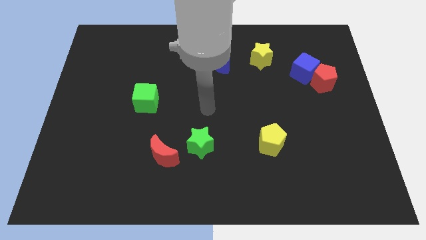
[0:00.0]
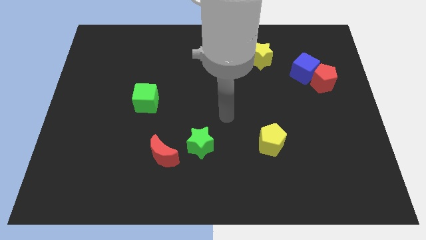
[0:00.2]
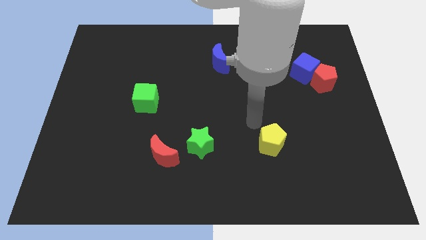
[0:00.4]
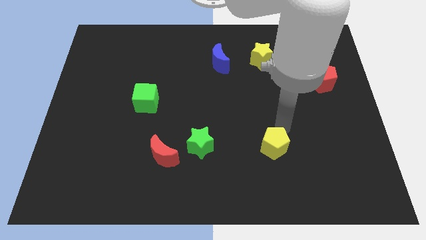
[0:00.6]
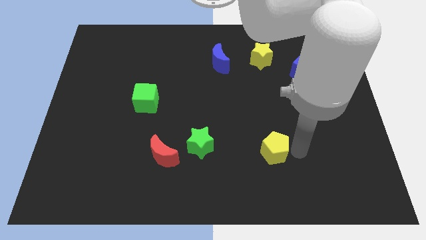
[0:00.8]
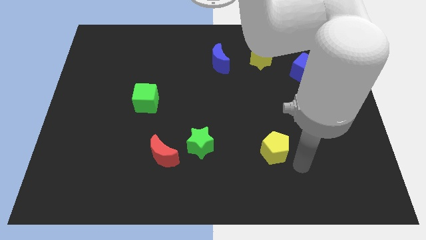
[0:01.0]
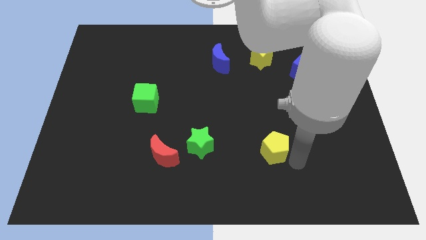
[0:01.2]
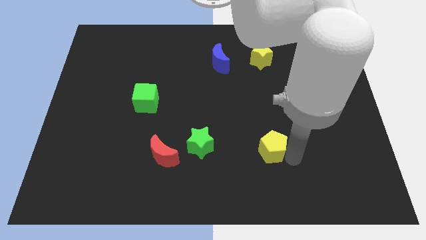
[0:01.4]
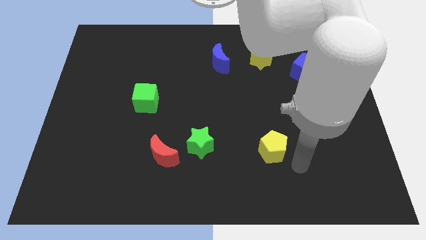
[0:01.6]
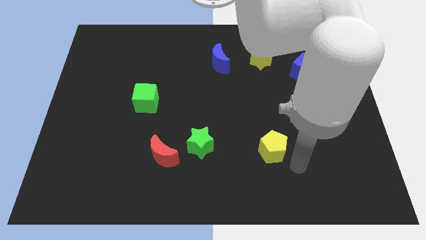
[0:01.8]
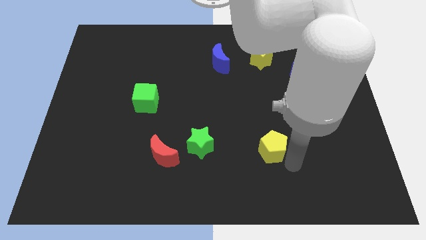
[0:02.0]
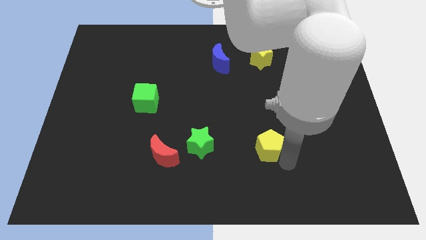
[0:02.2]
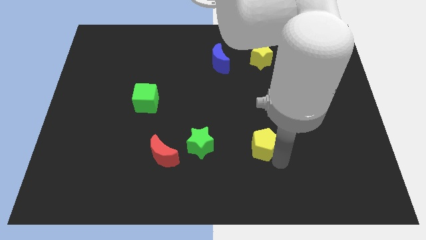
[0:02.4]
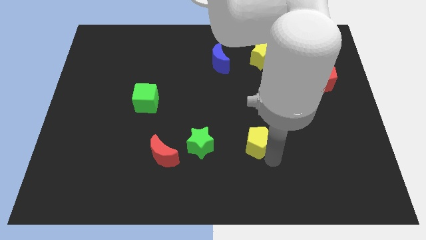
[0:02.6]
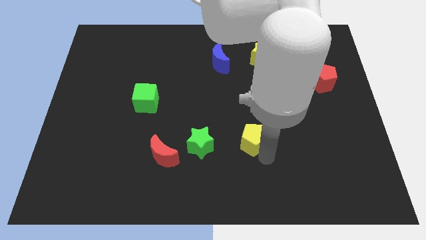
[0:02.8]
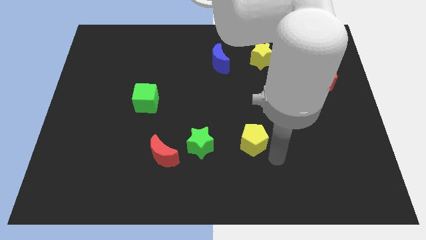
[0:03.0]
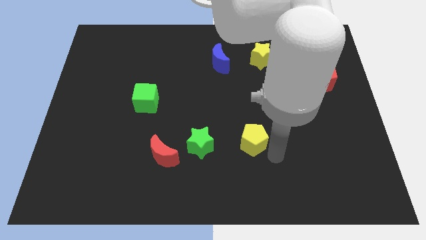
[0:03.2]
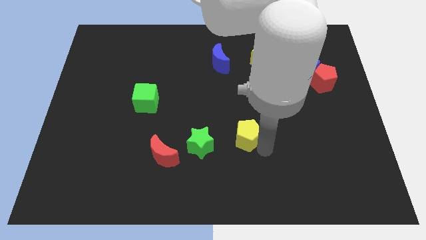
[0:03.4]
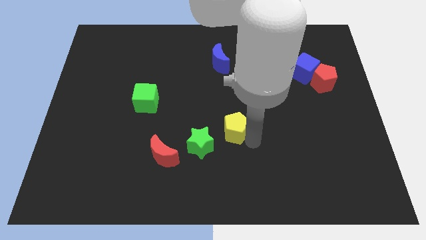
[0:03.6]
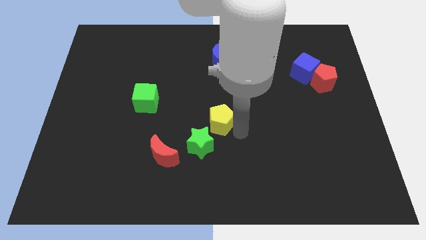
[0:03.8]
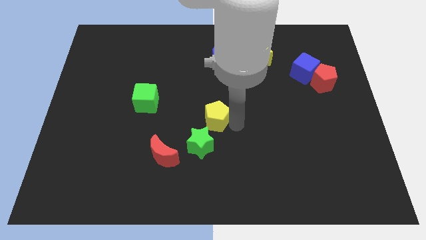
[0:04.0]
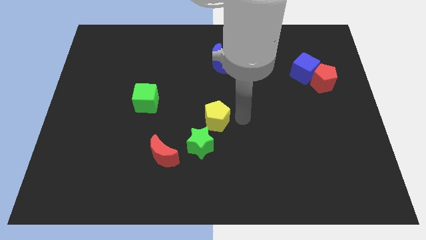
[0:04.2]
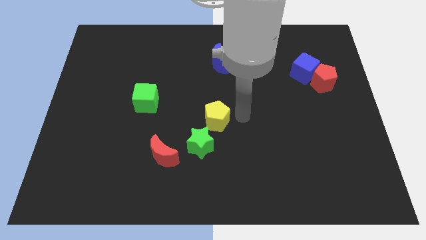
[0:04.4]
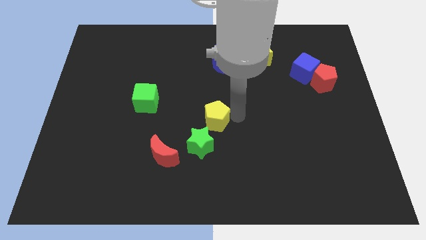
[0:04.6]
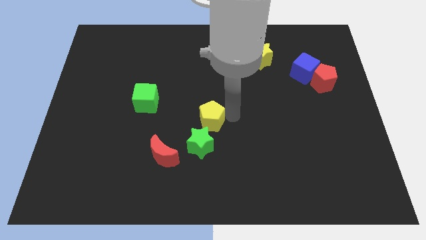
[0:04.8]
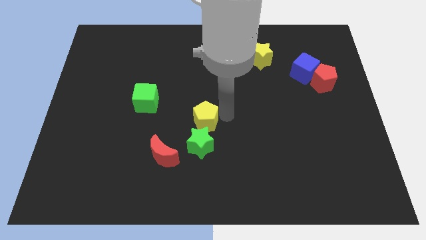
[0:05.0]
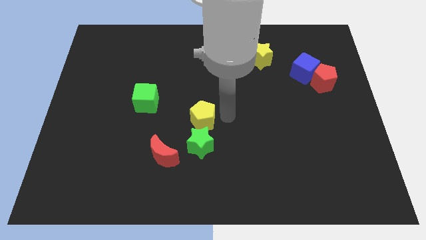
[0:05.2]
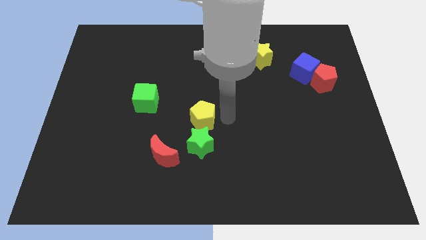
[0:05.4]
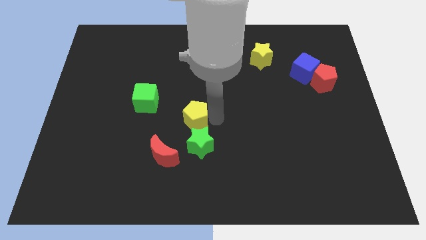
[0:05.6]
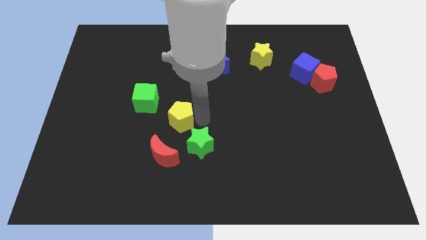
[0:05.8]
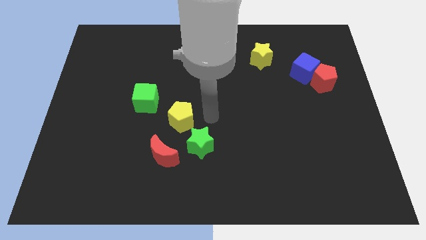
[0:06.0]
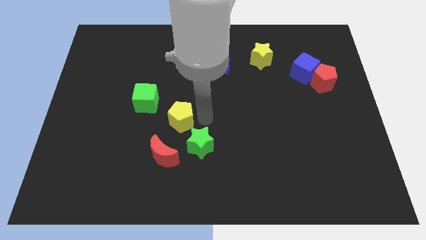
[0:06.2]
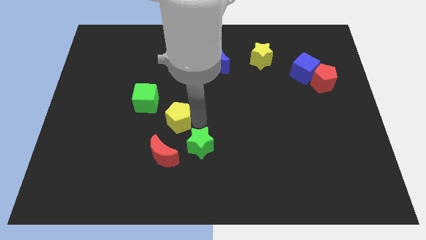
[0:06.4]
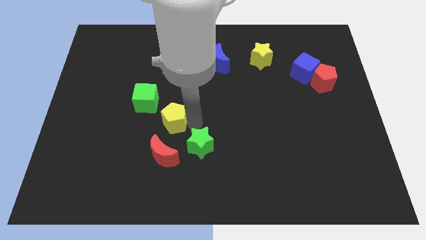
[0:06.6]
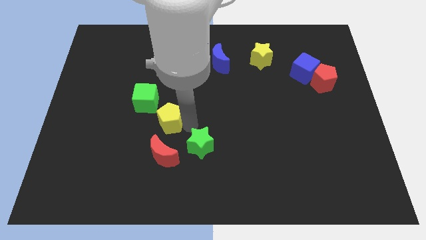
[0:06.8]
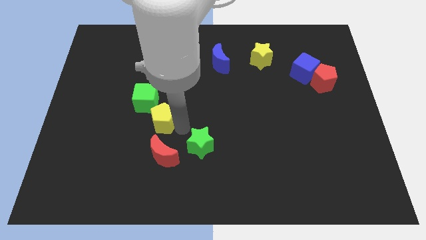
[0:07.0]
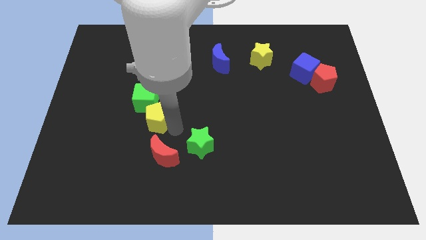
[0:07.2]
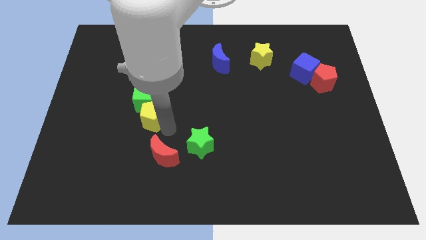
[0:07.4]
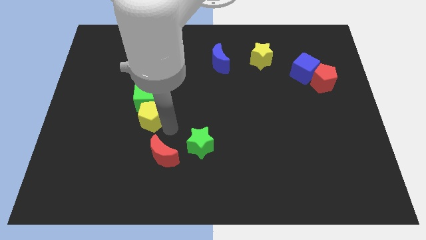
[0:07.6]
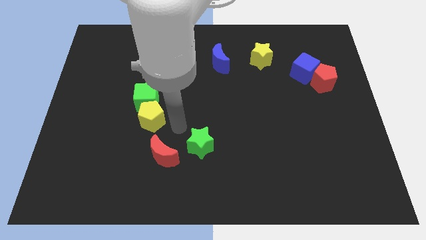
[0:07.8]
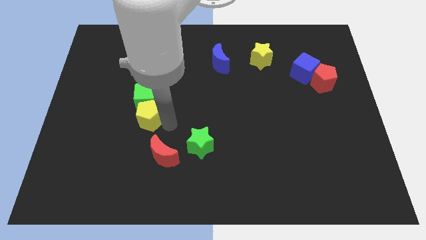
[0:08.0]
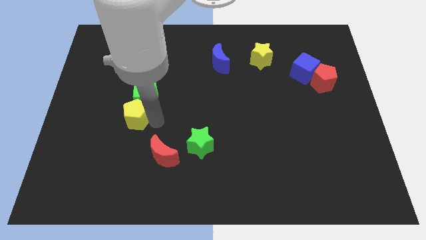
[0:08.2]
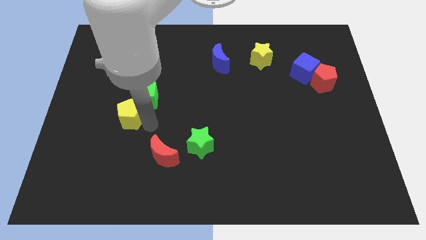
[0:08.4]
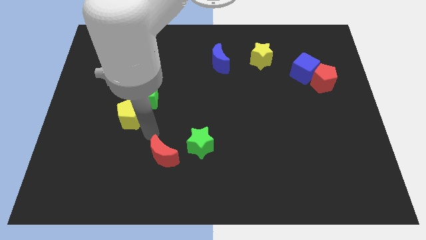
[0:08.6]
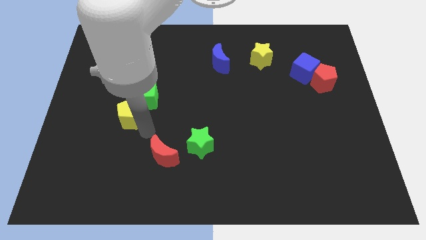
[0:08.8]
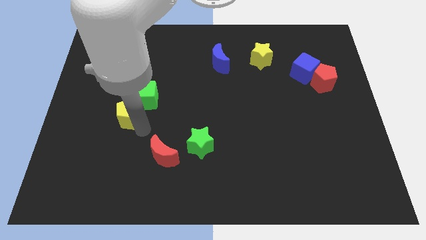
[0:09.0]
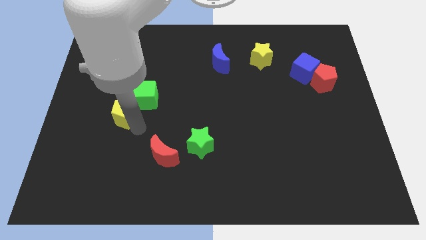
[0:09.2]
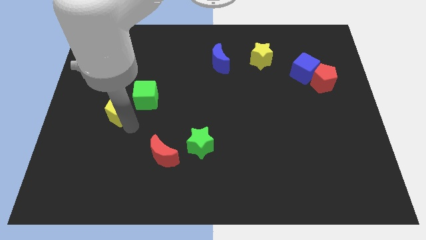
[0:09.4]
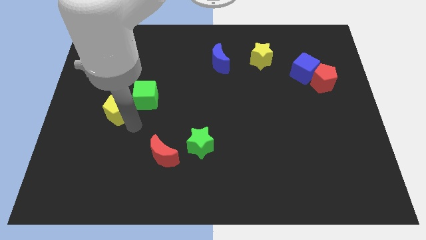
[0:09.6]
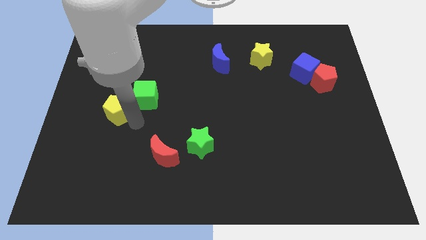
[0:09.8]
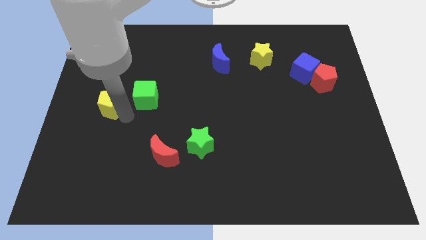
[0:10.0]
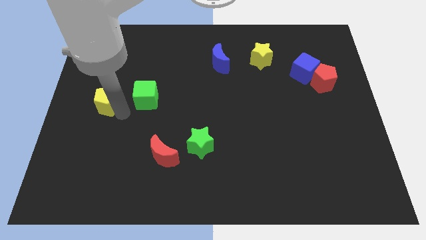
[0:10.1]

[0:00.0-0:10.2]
push the yellow pentagon to the left side of the board

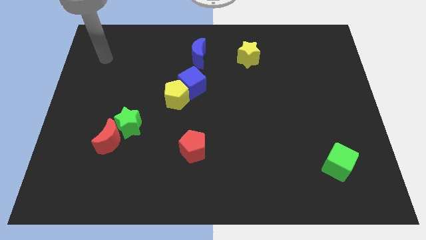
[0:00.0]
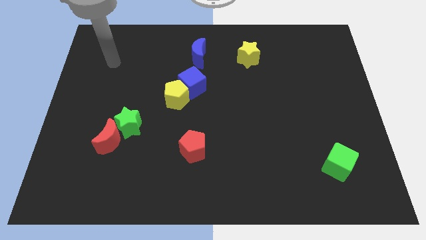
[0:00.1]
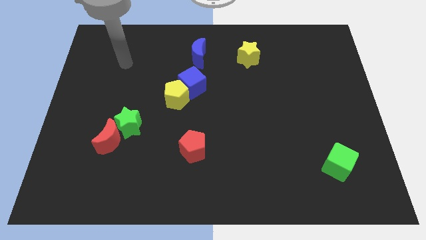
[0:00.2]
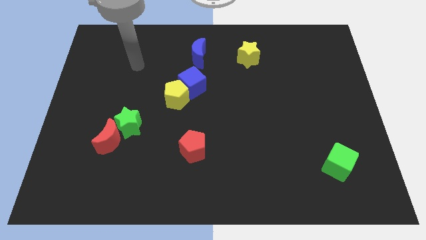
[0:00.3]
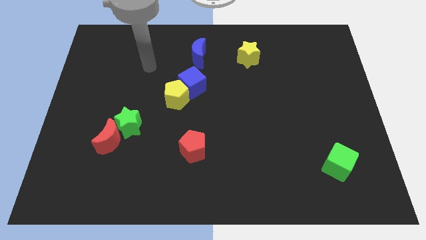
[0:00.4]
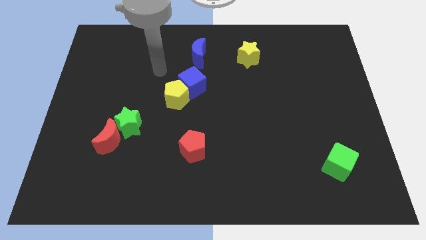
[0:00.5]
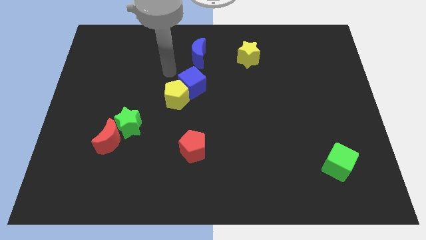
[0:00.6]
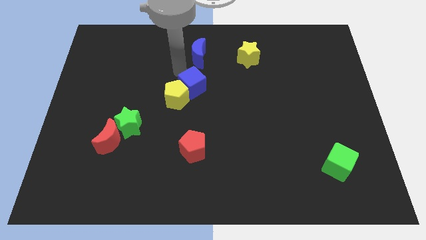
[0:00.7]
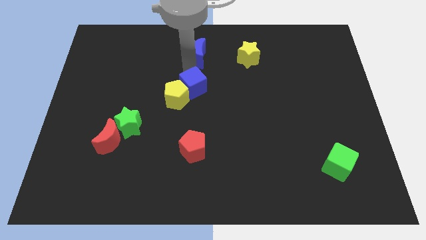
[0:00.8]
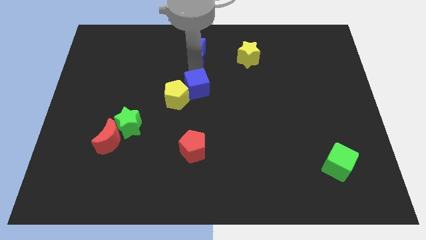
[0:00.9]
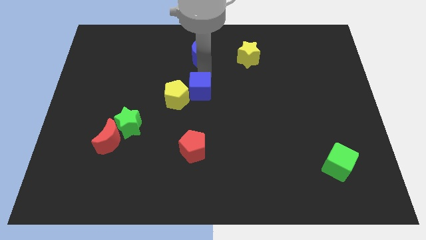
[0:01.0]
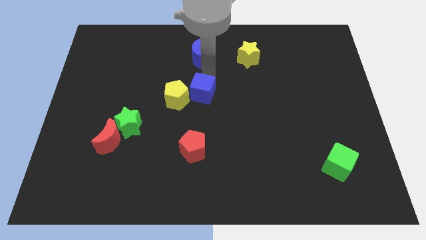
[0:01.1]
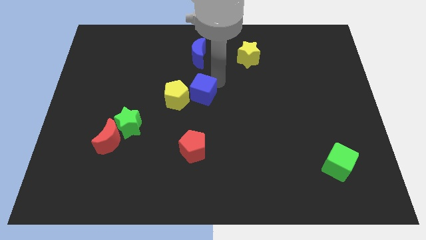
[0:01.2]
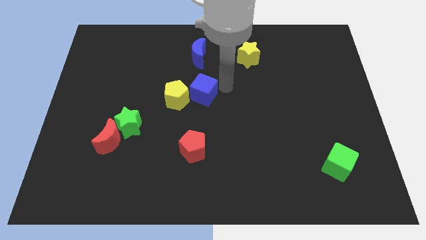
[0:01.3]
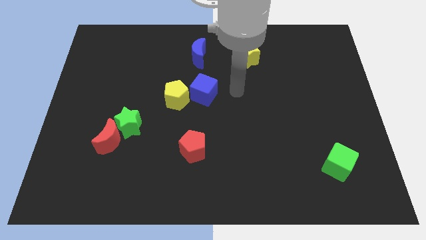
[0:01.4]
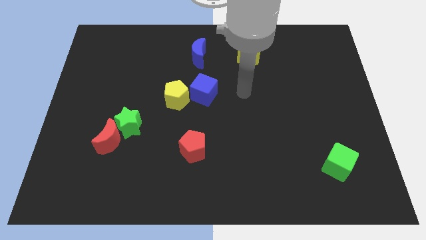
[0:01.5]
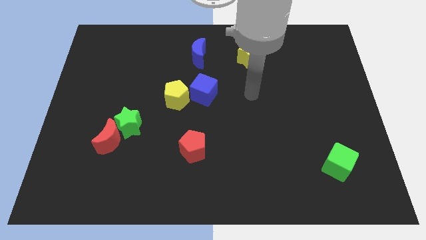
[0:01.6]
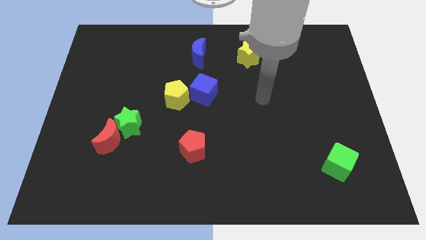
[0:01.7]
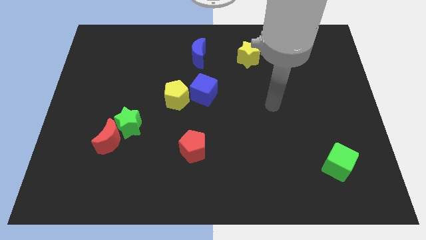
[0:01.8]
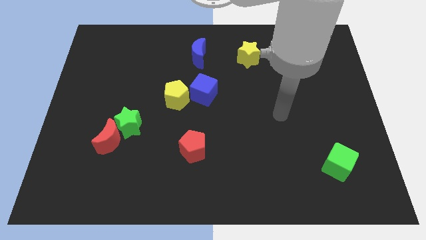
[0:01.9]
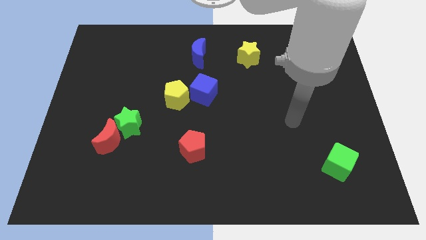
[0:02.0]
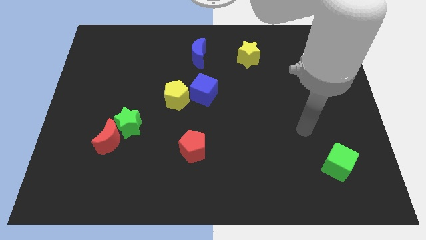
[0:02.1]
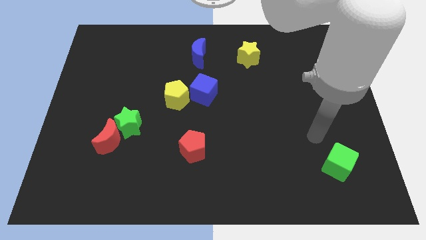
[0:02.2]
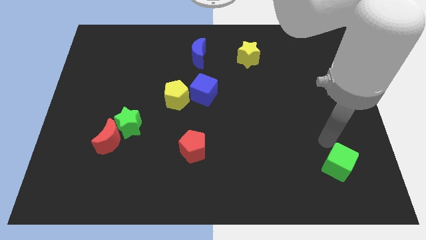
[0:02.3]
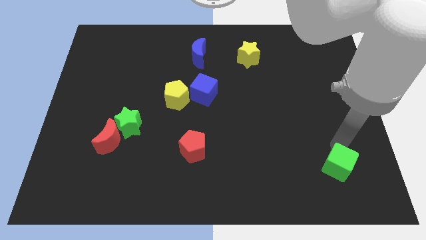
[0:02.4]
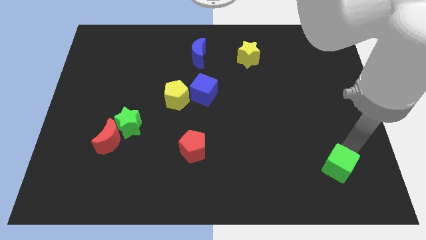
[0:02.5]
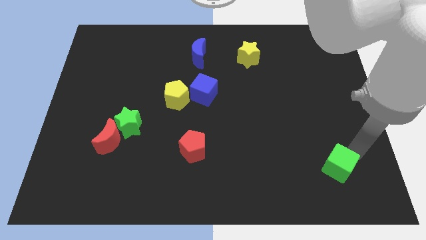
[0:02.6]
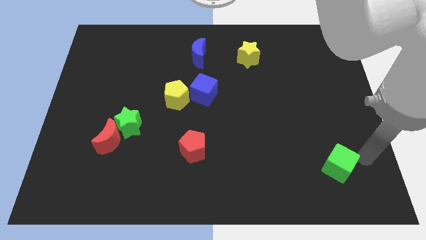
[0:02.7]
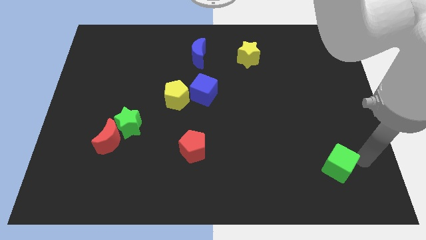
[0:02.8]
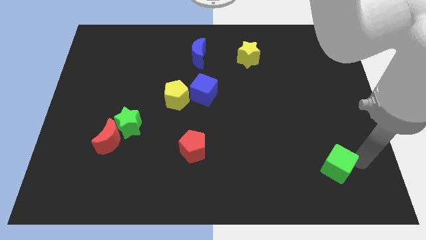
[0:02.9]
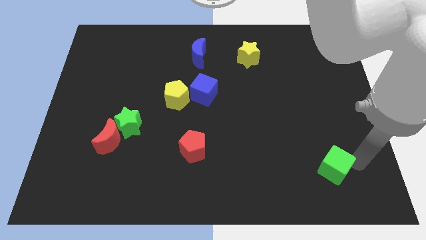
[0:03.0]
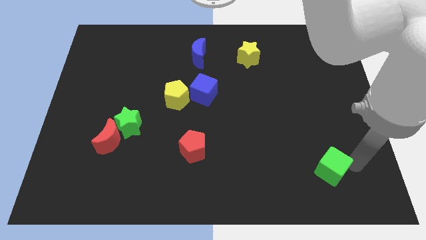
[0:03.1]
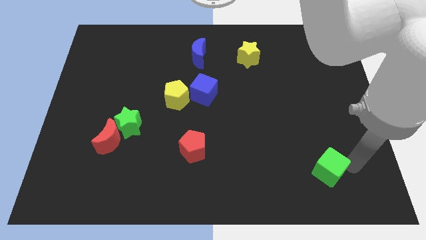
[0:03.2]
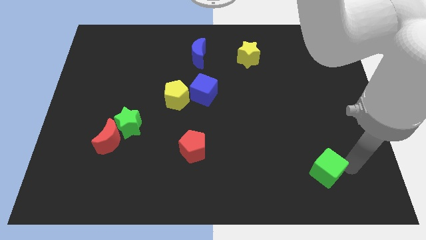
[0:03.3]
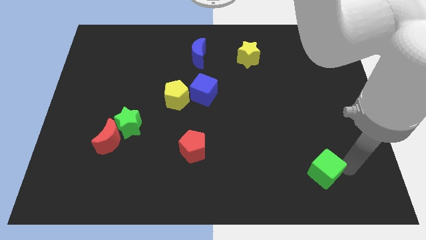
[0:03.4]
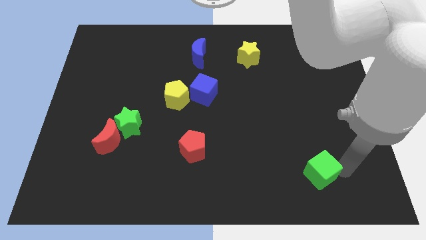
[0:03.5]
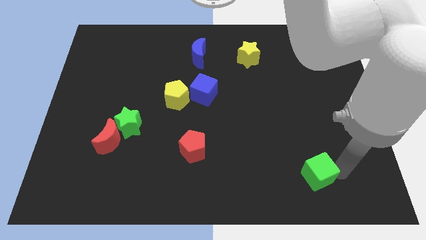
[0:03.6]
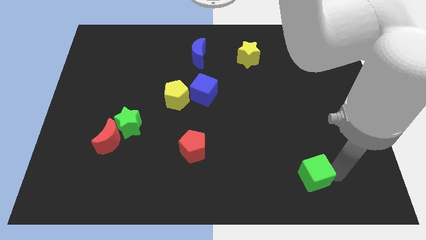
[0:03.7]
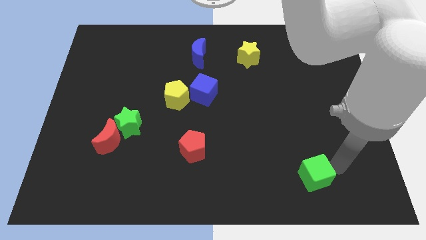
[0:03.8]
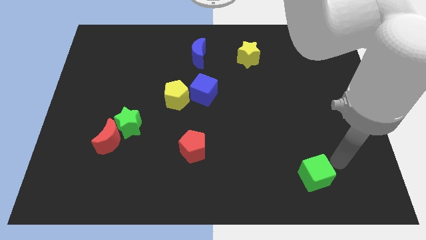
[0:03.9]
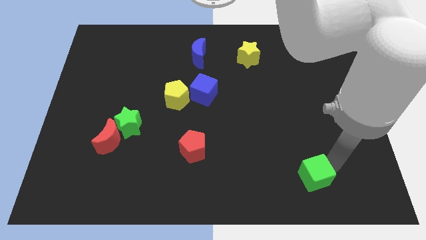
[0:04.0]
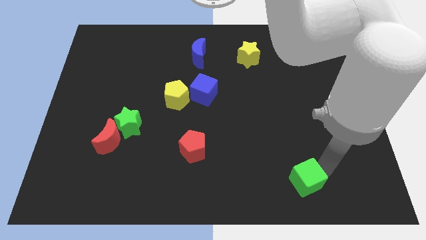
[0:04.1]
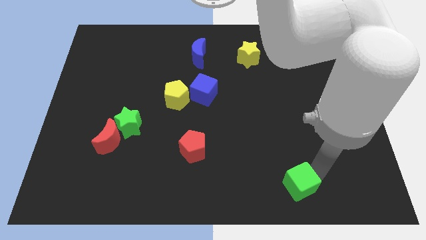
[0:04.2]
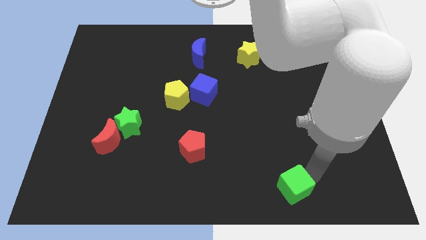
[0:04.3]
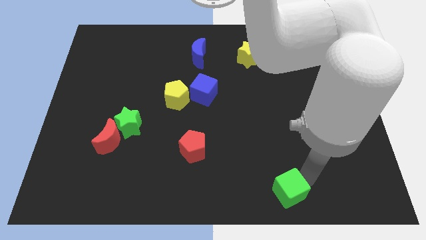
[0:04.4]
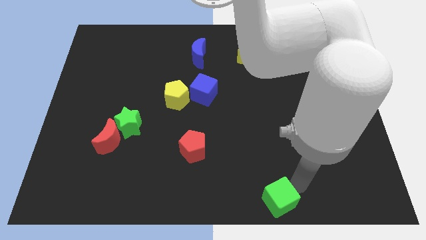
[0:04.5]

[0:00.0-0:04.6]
put the green cube to the bottom side
